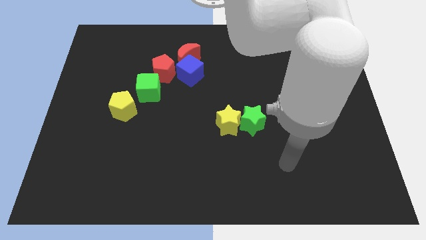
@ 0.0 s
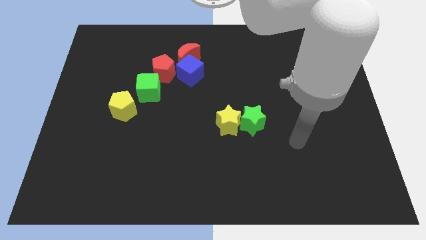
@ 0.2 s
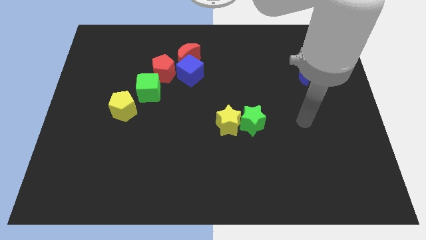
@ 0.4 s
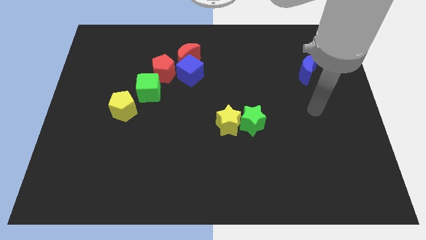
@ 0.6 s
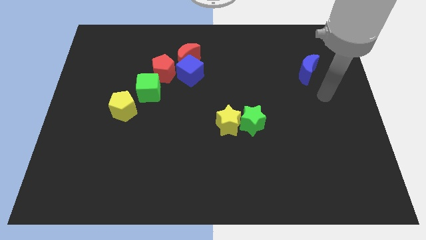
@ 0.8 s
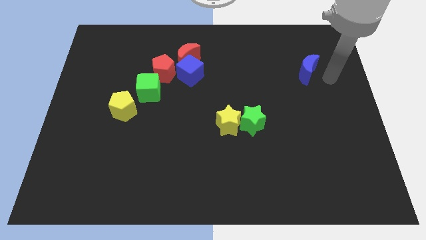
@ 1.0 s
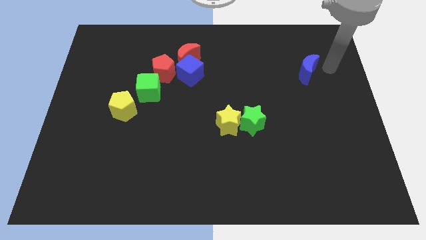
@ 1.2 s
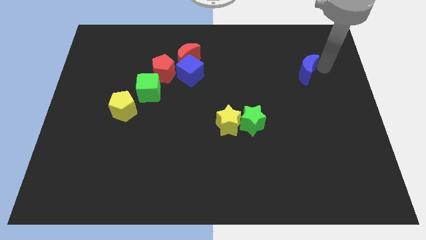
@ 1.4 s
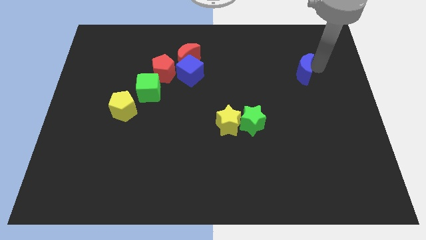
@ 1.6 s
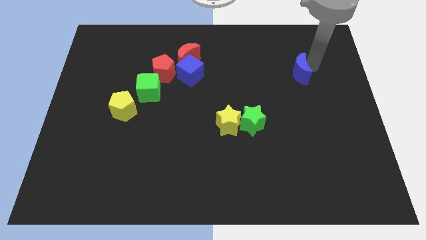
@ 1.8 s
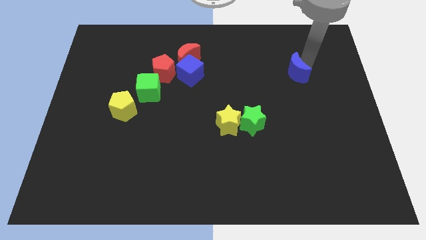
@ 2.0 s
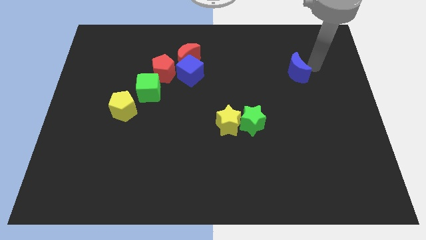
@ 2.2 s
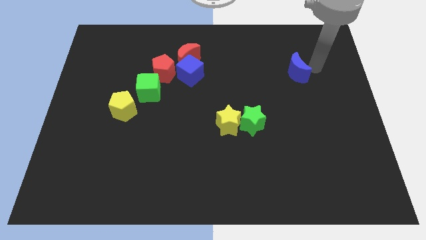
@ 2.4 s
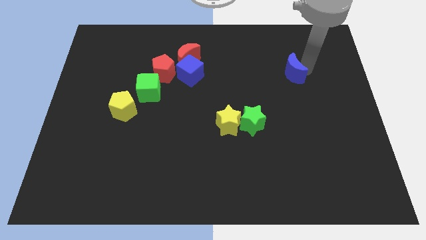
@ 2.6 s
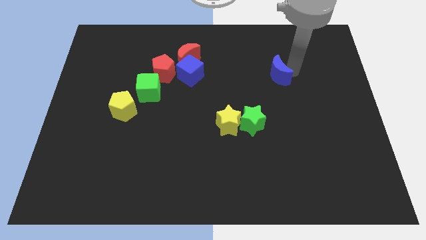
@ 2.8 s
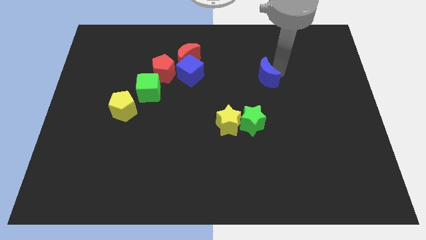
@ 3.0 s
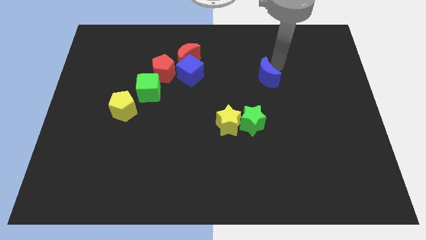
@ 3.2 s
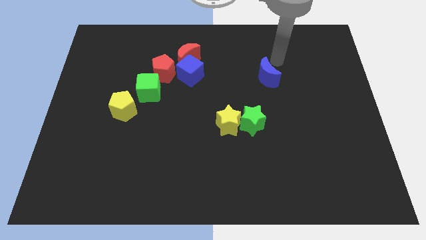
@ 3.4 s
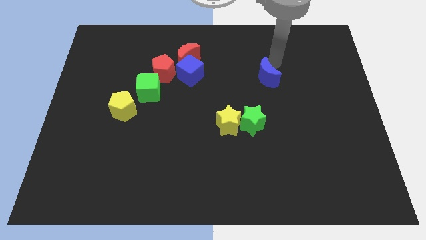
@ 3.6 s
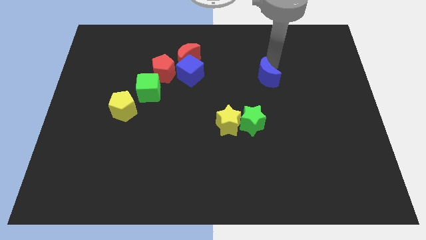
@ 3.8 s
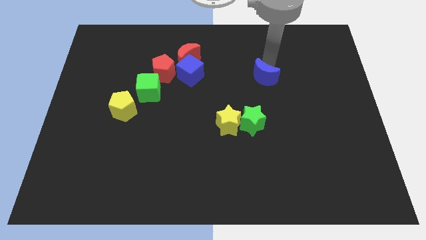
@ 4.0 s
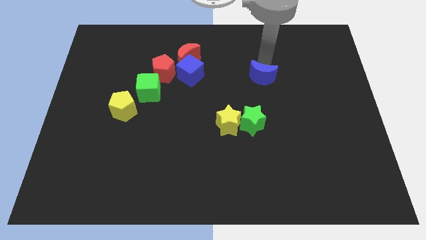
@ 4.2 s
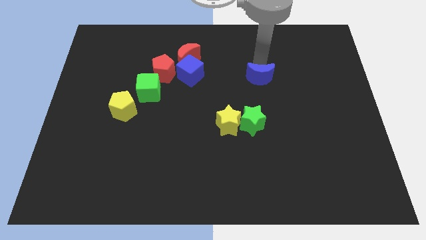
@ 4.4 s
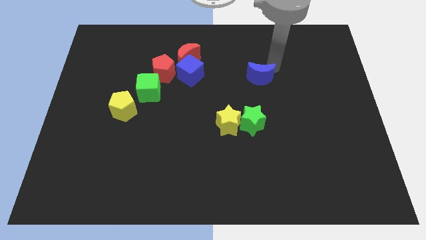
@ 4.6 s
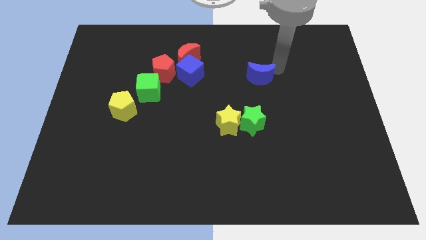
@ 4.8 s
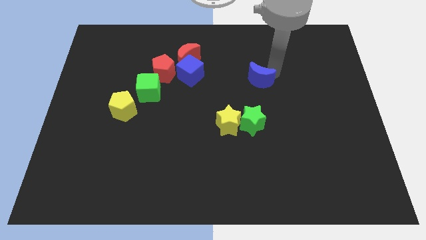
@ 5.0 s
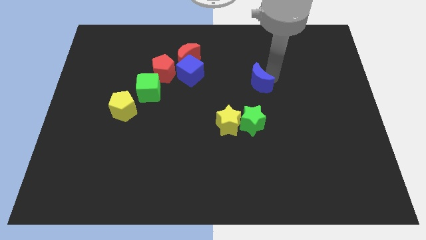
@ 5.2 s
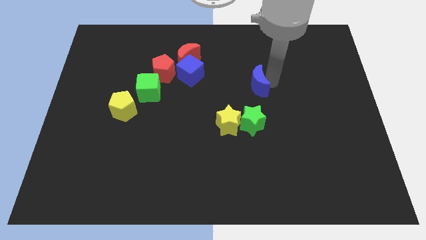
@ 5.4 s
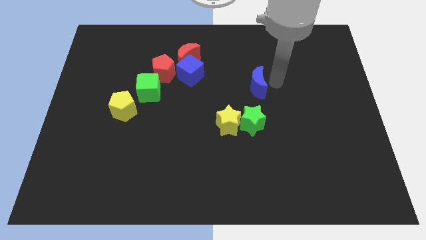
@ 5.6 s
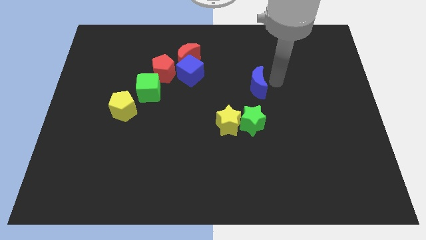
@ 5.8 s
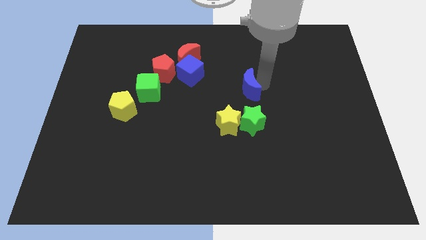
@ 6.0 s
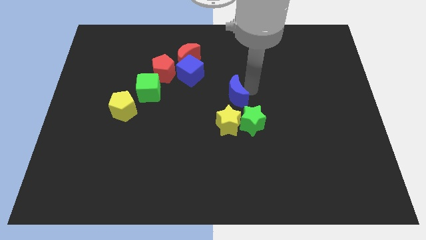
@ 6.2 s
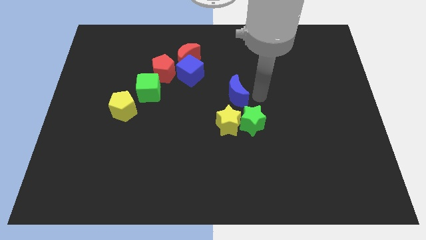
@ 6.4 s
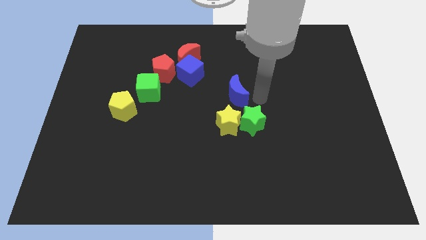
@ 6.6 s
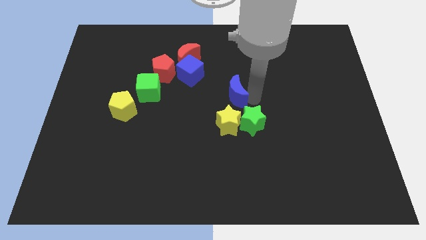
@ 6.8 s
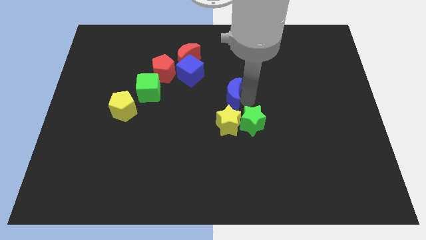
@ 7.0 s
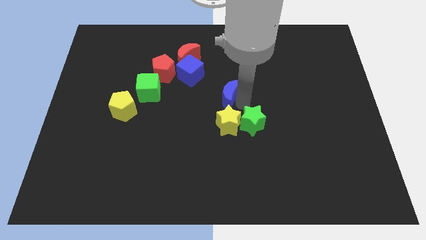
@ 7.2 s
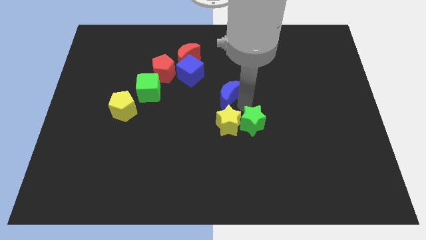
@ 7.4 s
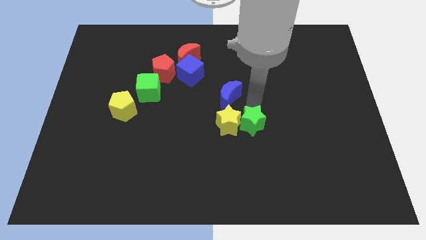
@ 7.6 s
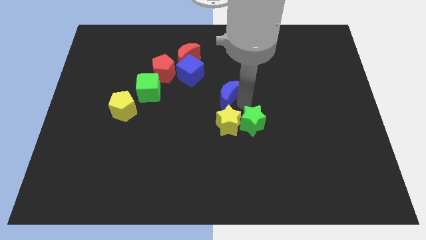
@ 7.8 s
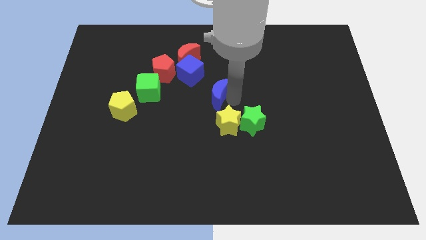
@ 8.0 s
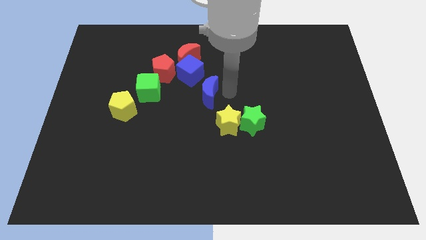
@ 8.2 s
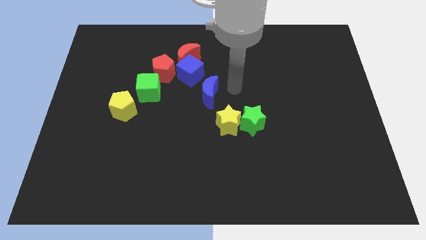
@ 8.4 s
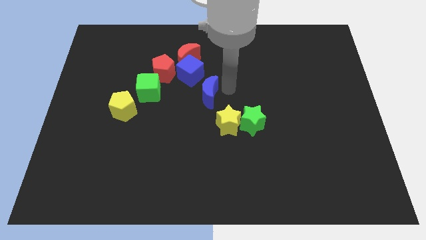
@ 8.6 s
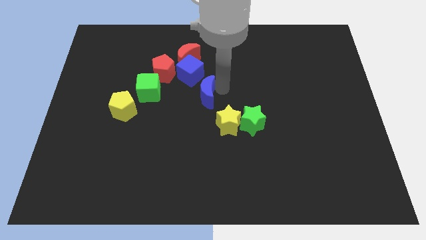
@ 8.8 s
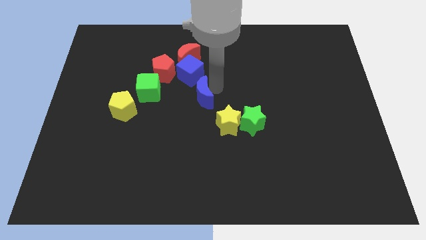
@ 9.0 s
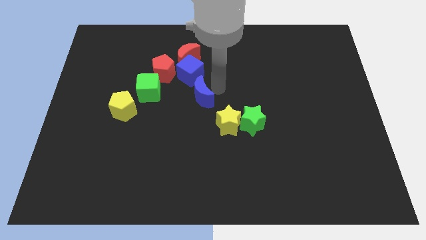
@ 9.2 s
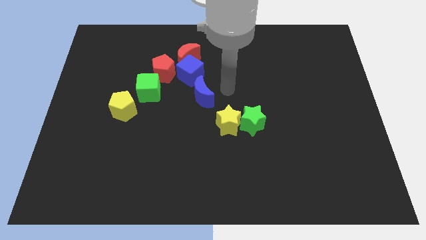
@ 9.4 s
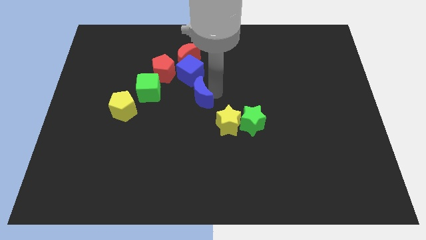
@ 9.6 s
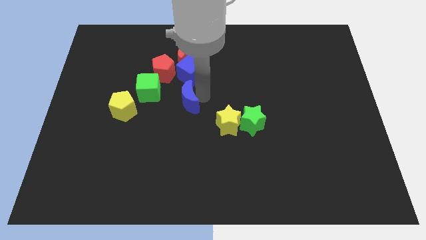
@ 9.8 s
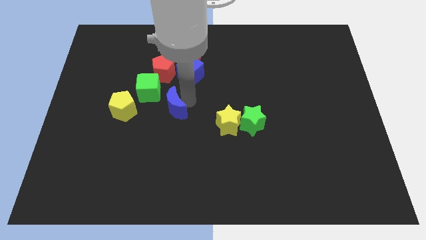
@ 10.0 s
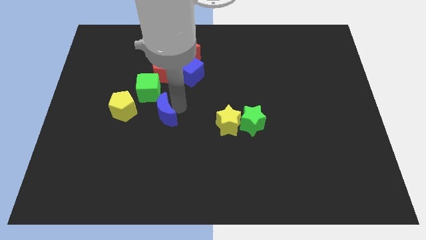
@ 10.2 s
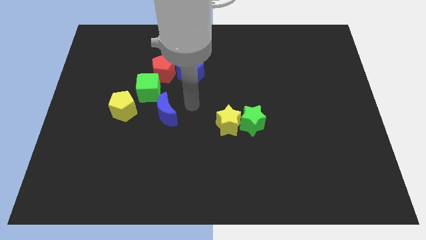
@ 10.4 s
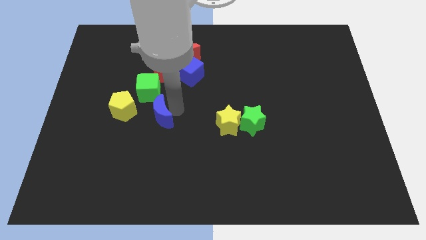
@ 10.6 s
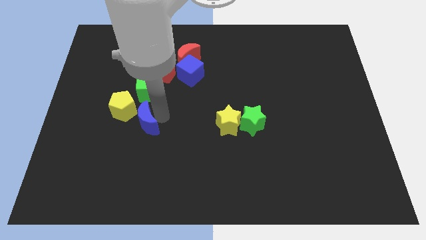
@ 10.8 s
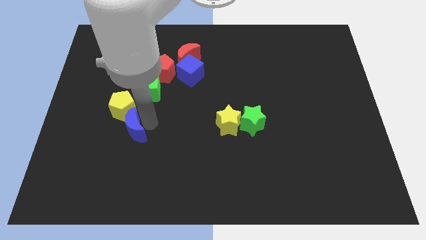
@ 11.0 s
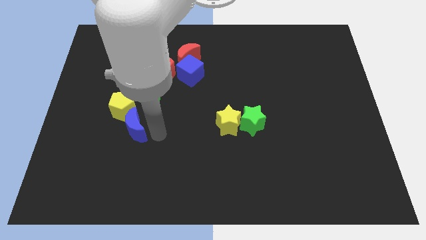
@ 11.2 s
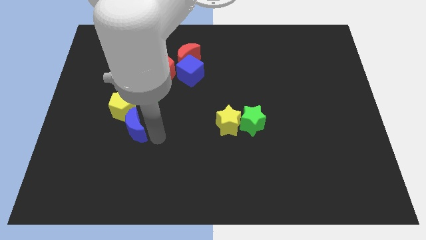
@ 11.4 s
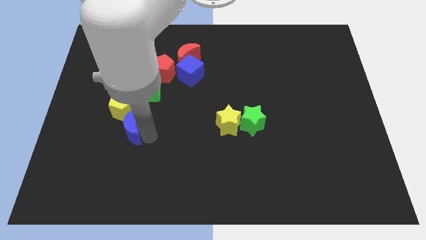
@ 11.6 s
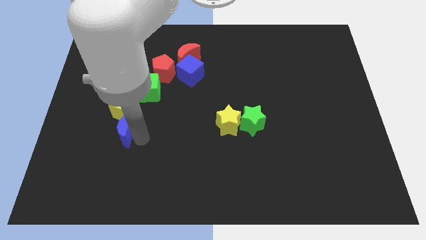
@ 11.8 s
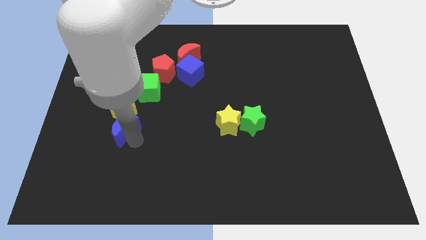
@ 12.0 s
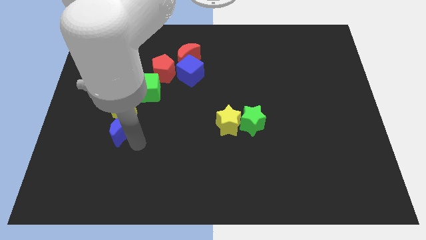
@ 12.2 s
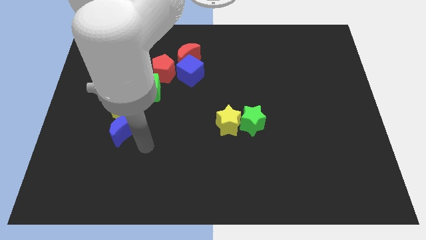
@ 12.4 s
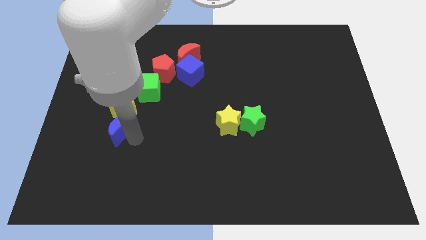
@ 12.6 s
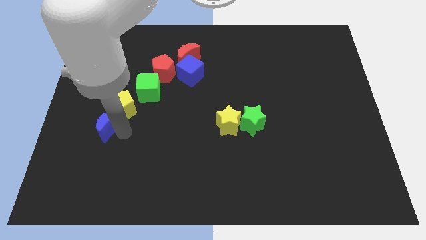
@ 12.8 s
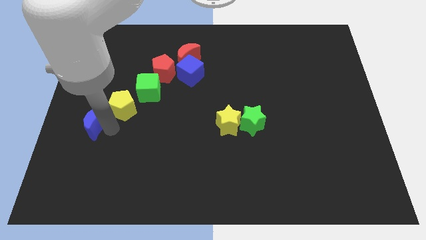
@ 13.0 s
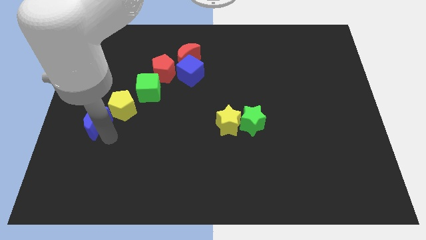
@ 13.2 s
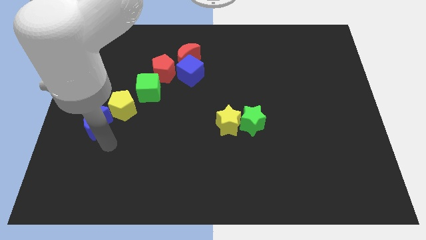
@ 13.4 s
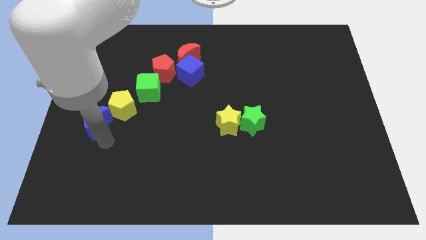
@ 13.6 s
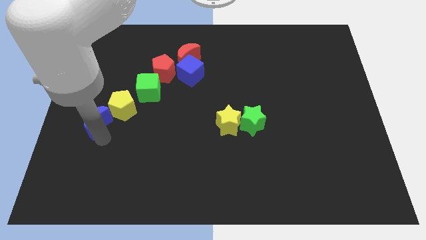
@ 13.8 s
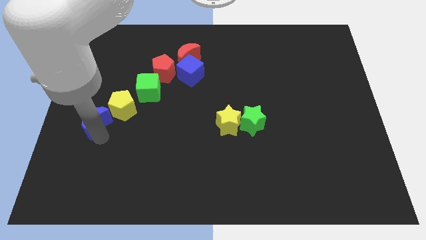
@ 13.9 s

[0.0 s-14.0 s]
slide the blue moon to the left side
